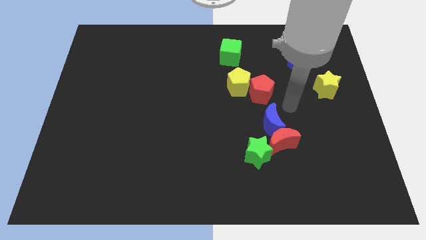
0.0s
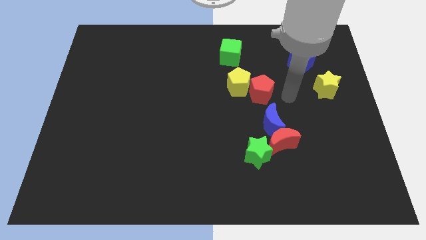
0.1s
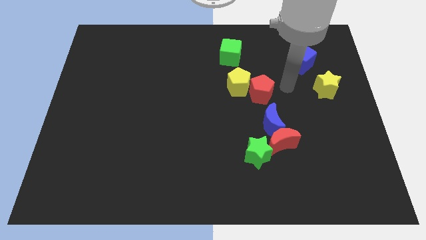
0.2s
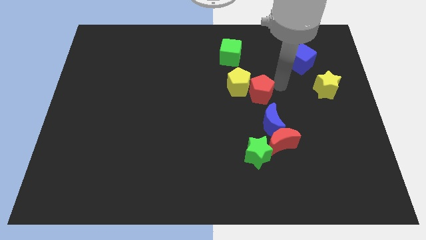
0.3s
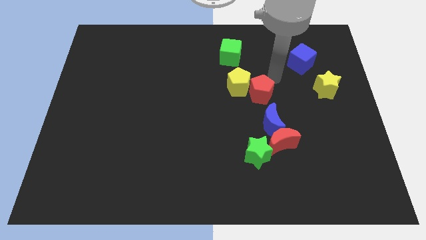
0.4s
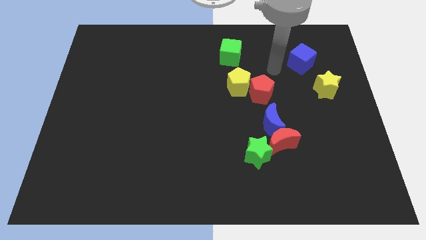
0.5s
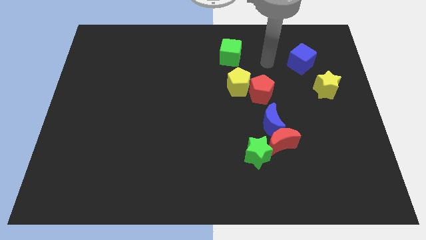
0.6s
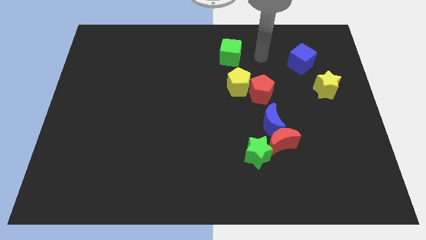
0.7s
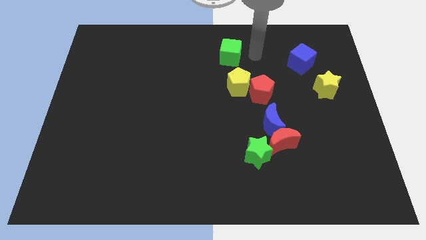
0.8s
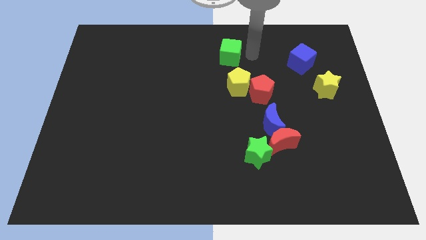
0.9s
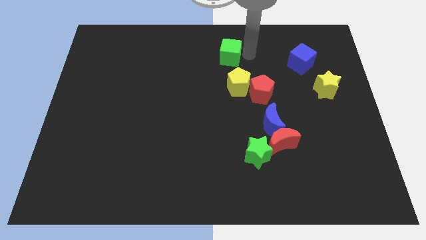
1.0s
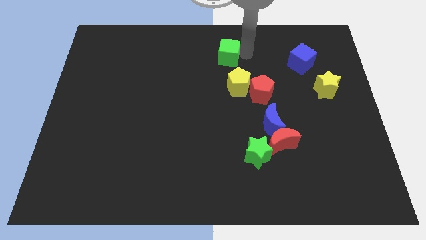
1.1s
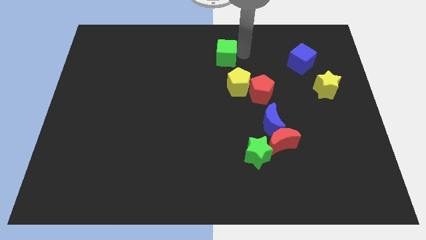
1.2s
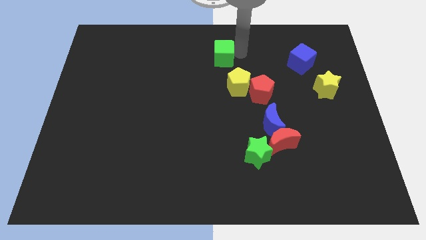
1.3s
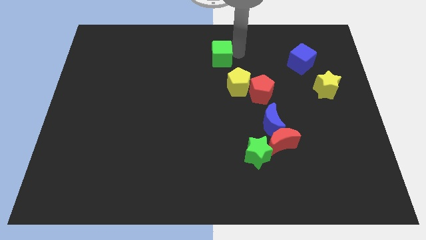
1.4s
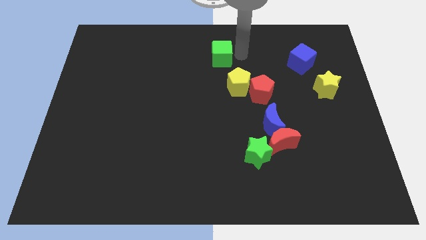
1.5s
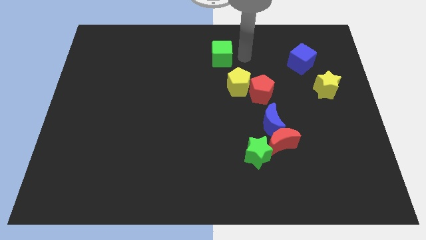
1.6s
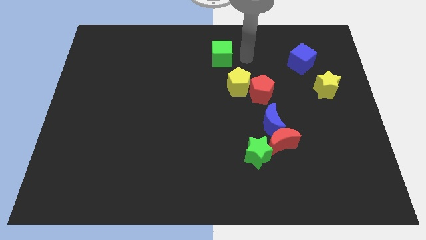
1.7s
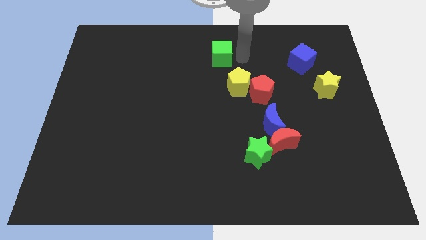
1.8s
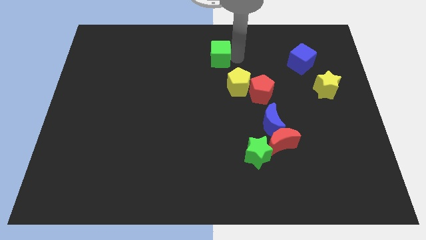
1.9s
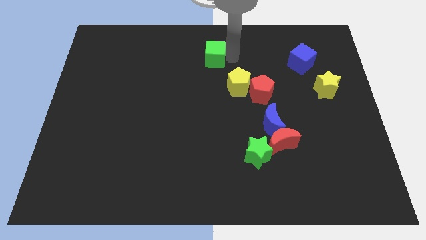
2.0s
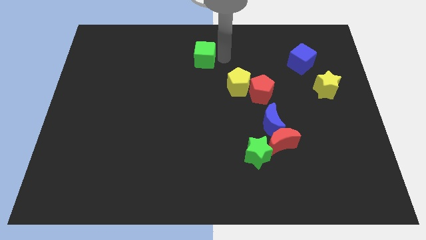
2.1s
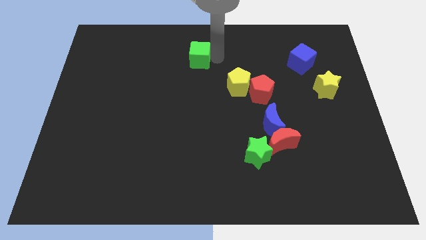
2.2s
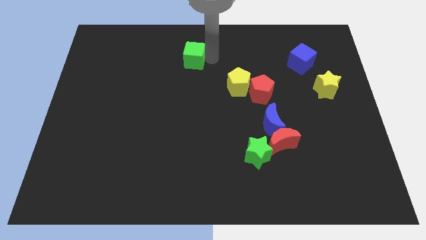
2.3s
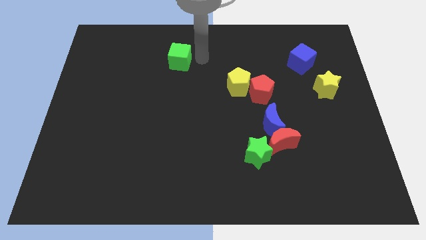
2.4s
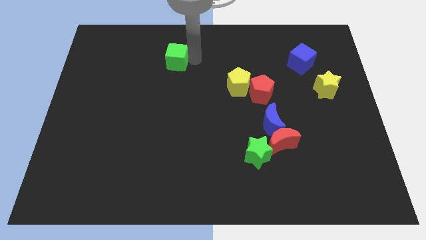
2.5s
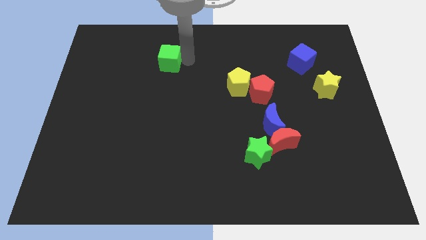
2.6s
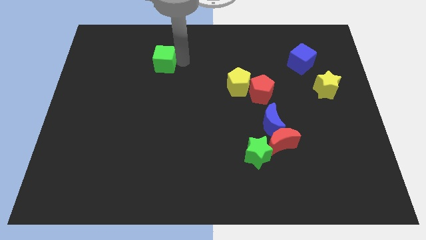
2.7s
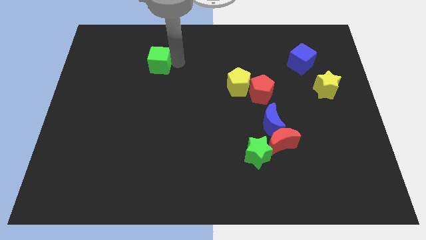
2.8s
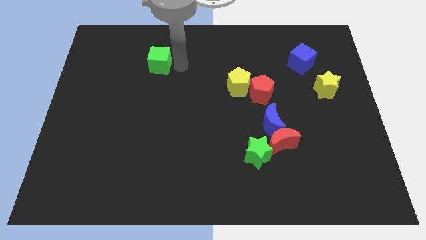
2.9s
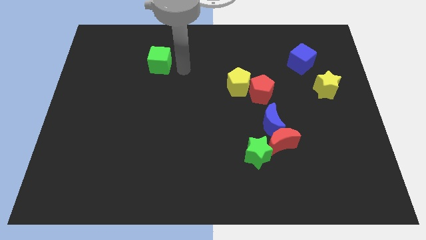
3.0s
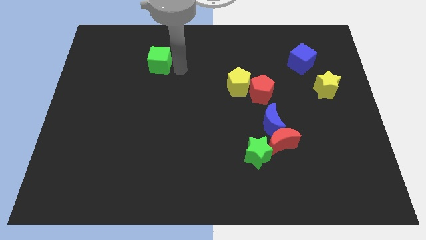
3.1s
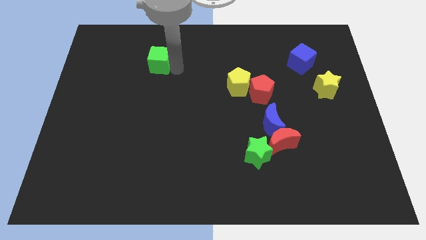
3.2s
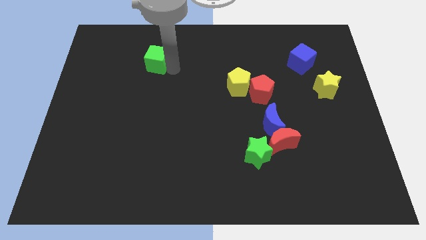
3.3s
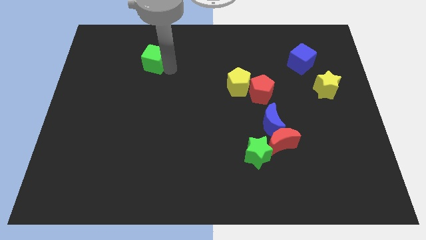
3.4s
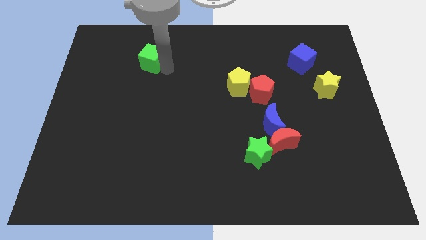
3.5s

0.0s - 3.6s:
slide the green cube left

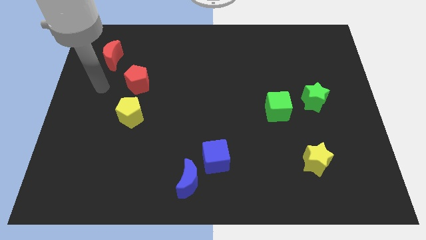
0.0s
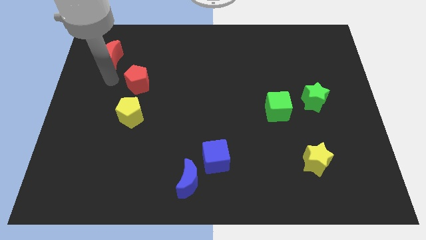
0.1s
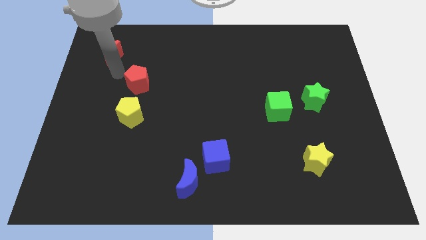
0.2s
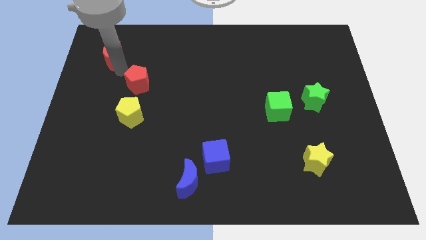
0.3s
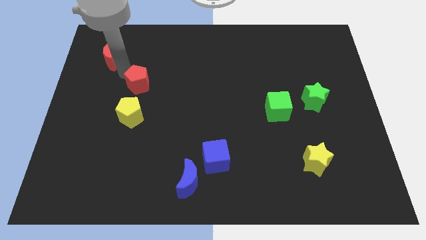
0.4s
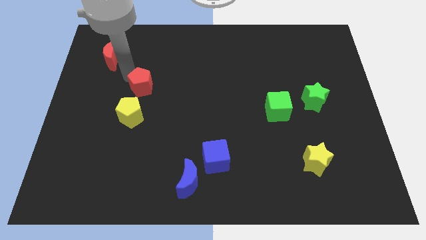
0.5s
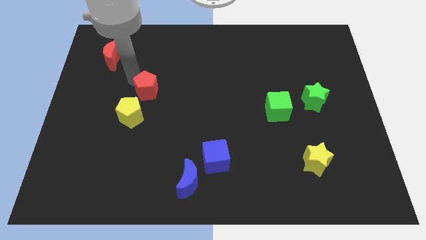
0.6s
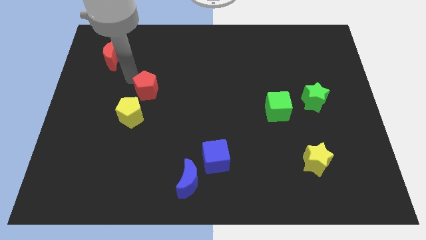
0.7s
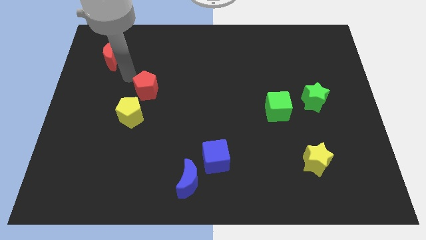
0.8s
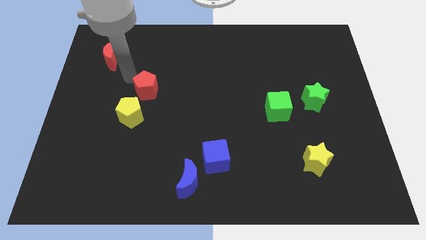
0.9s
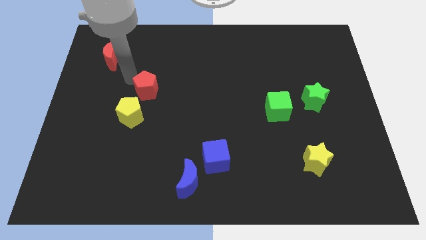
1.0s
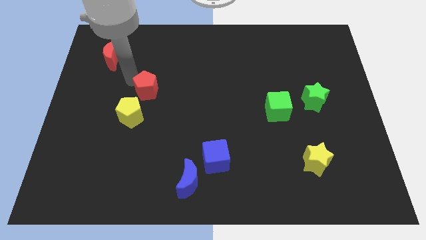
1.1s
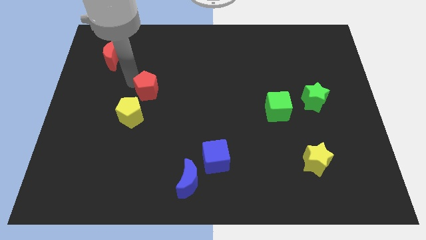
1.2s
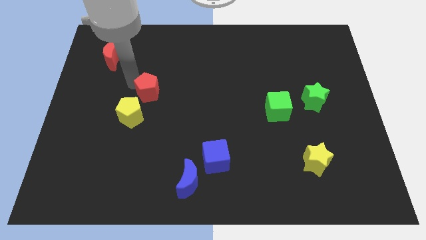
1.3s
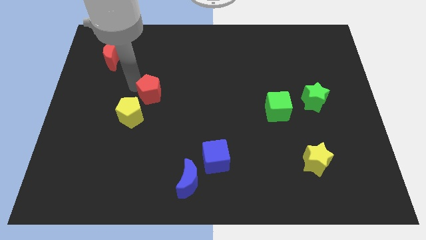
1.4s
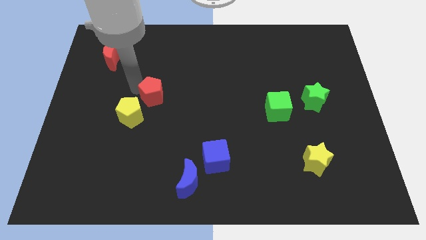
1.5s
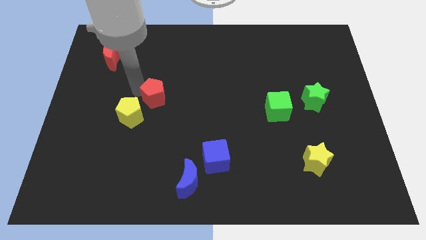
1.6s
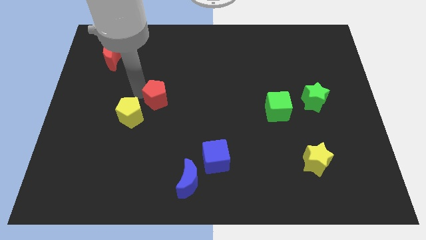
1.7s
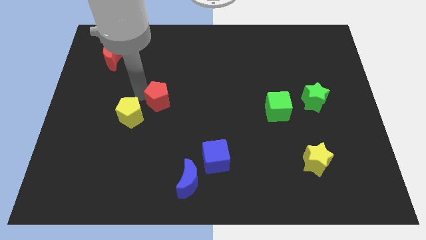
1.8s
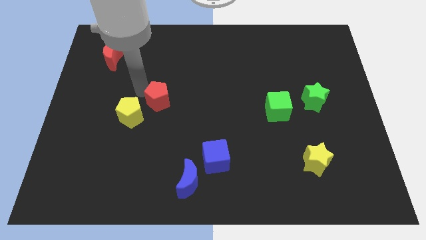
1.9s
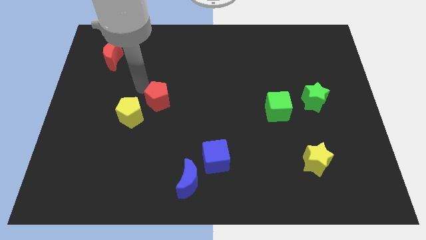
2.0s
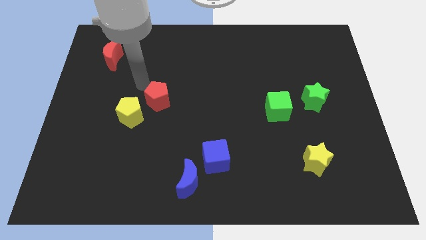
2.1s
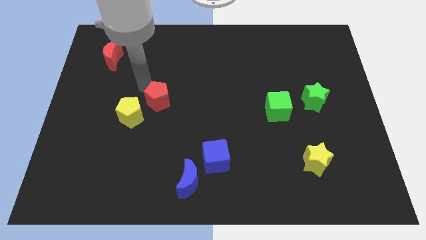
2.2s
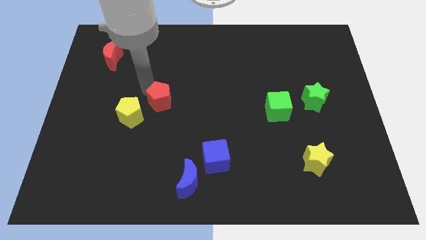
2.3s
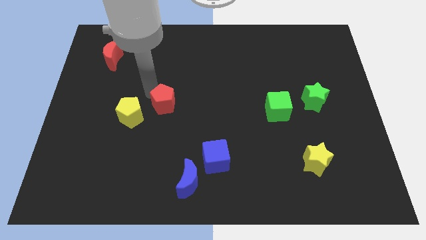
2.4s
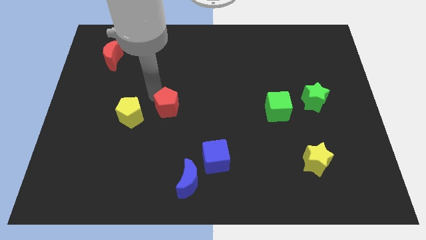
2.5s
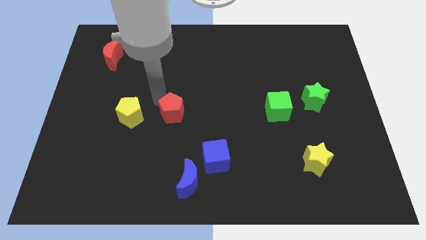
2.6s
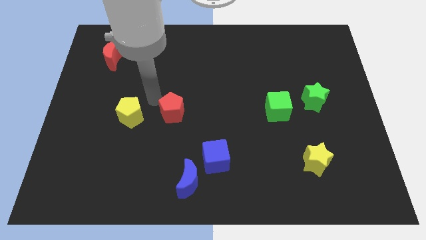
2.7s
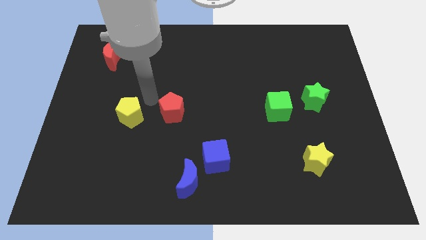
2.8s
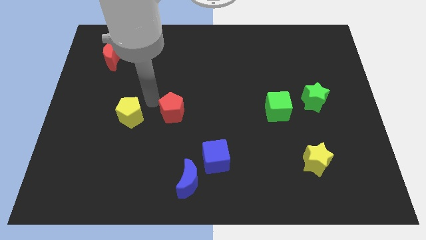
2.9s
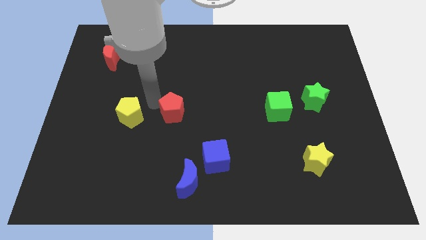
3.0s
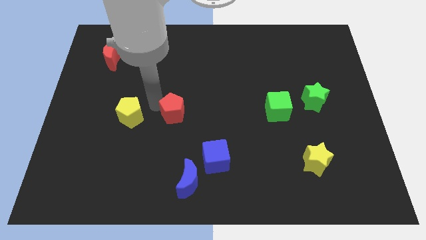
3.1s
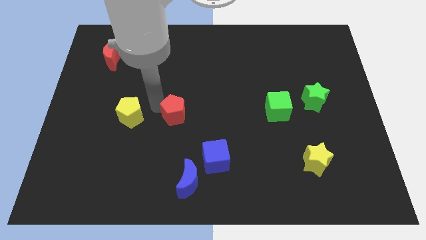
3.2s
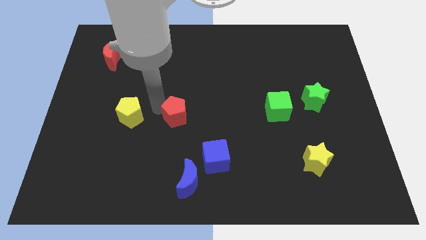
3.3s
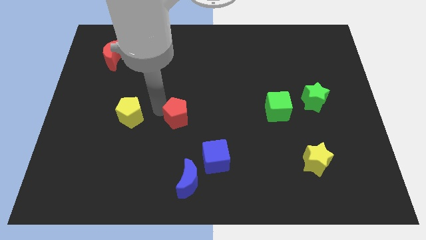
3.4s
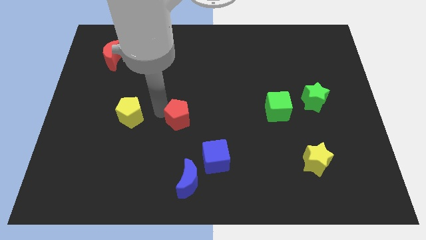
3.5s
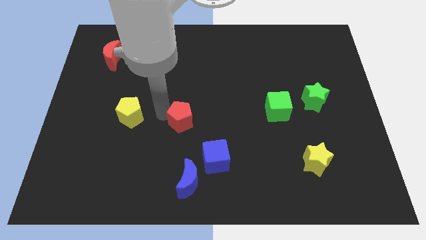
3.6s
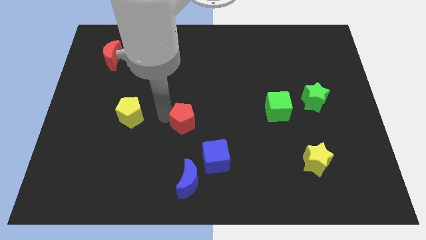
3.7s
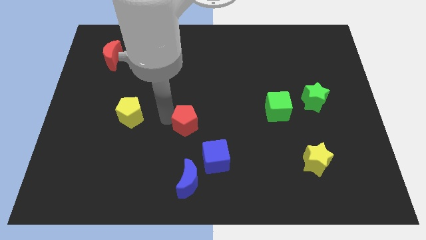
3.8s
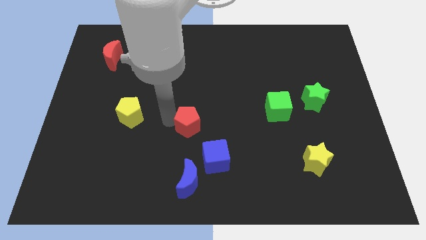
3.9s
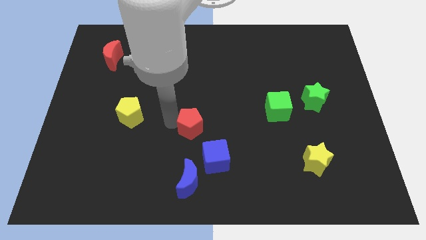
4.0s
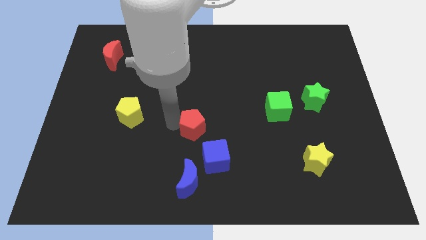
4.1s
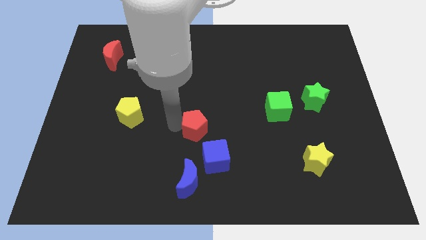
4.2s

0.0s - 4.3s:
push the red pentagon down and to the right
